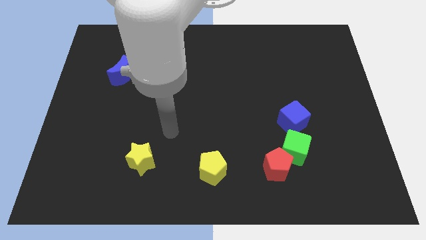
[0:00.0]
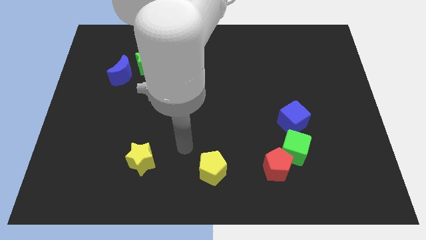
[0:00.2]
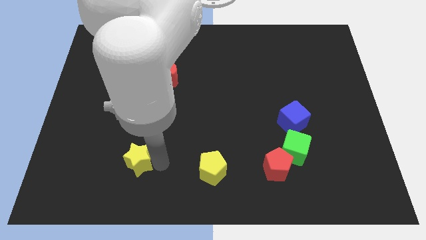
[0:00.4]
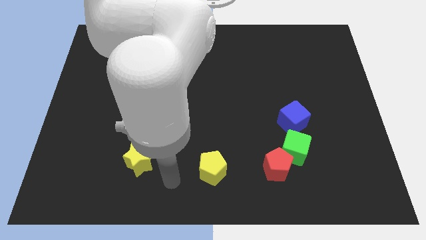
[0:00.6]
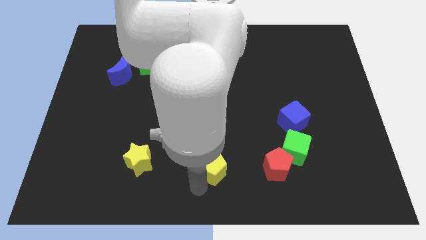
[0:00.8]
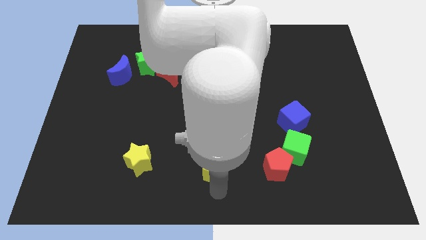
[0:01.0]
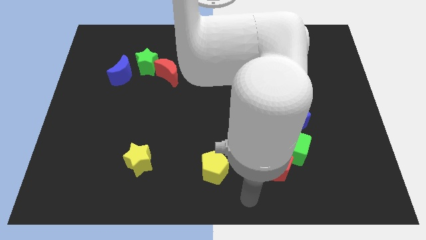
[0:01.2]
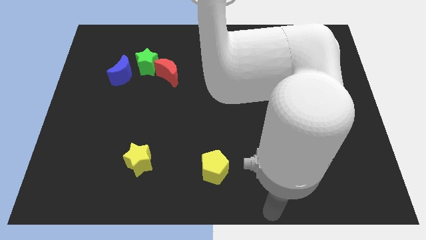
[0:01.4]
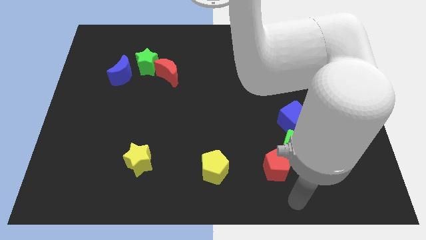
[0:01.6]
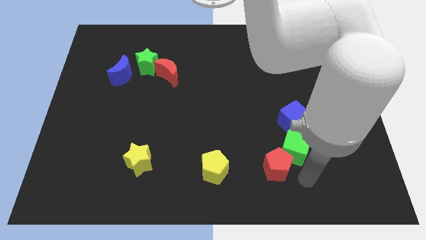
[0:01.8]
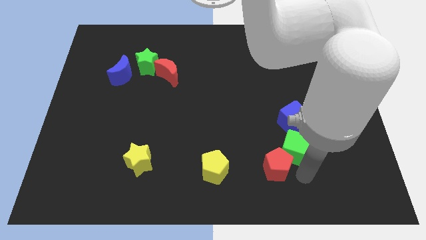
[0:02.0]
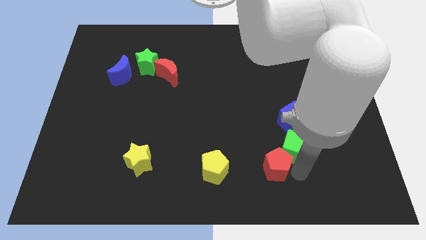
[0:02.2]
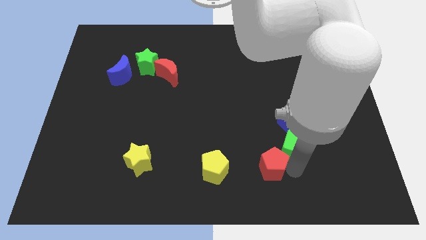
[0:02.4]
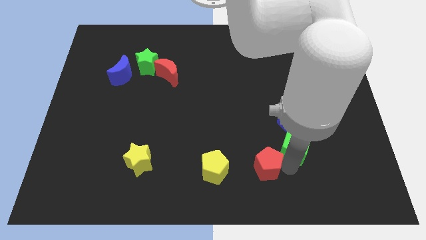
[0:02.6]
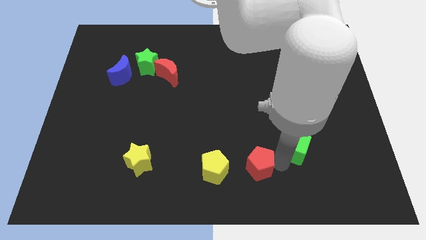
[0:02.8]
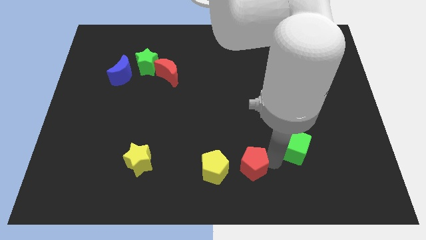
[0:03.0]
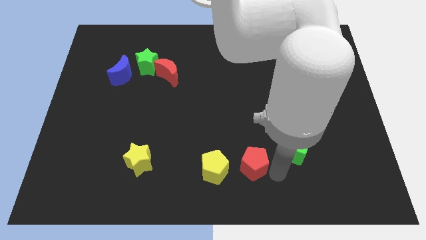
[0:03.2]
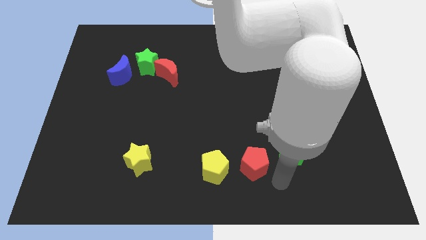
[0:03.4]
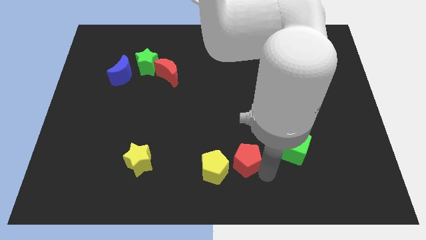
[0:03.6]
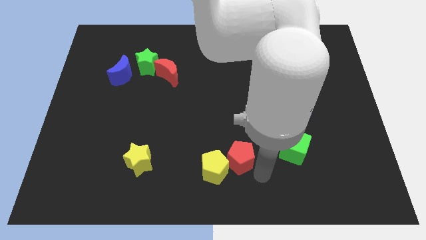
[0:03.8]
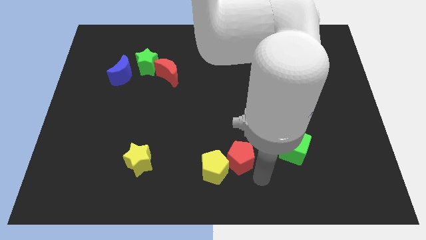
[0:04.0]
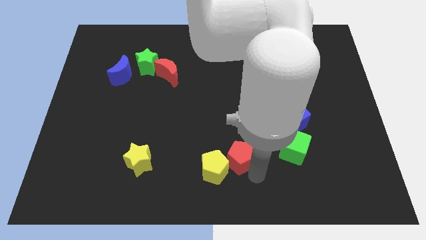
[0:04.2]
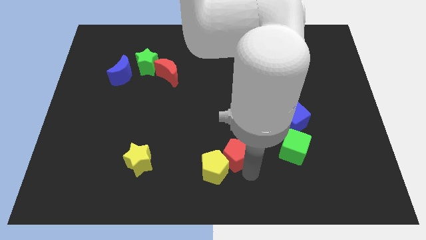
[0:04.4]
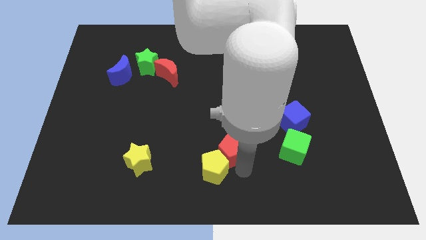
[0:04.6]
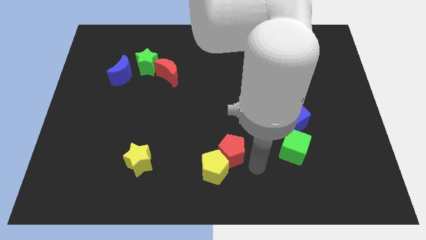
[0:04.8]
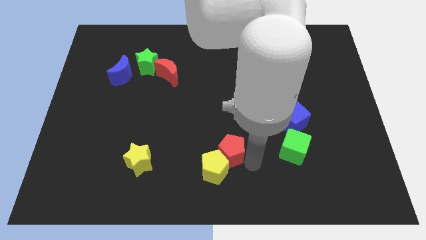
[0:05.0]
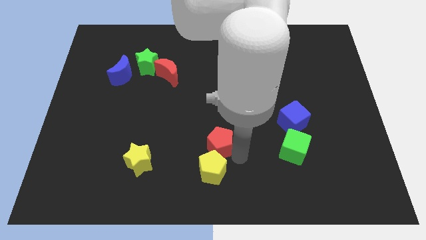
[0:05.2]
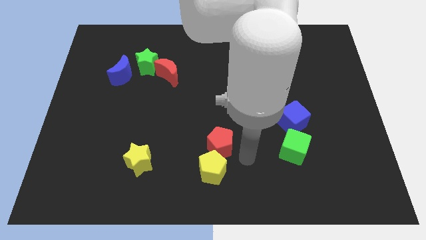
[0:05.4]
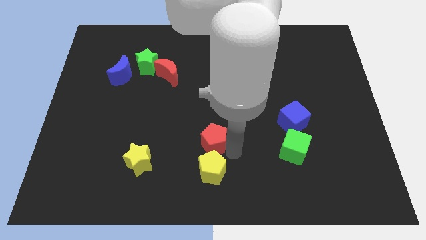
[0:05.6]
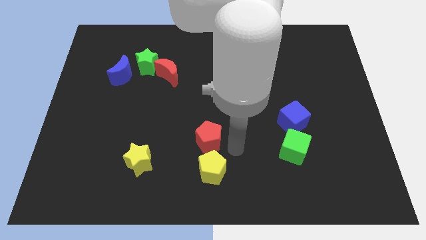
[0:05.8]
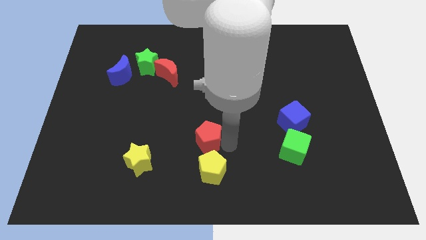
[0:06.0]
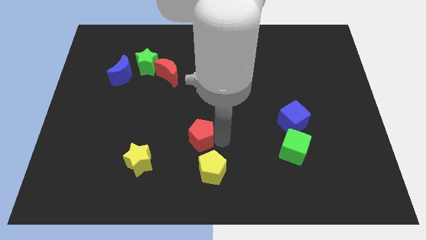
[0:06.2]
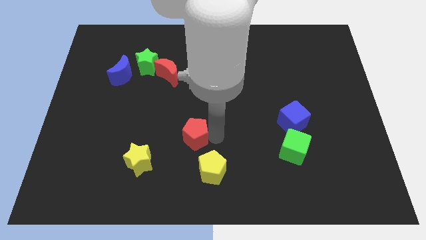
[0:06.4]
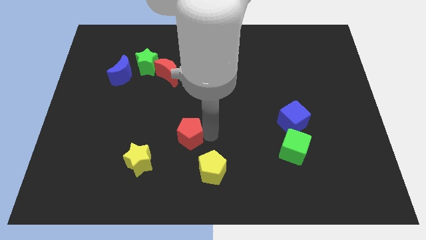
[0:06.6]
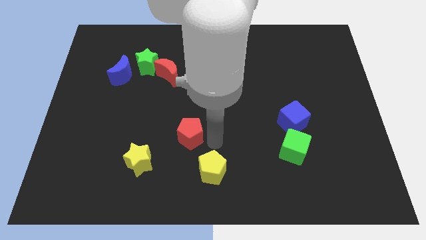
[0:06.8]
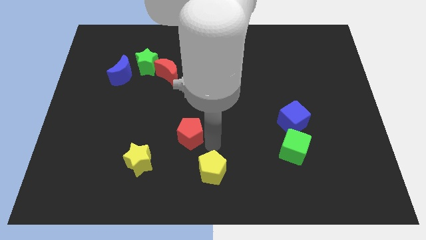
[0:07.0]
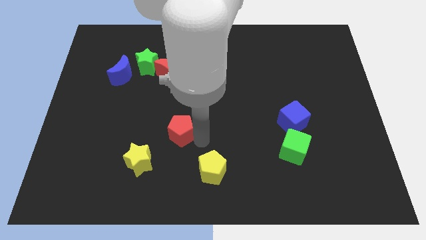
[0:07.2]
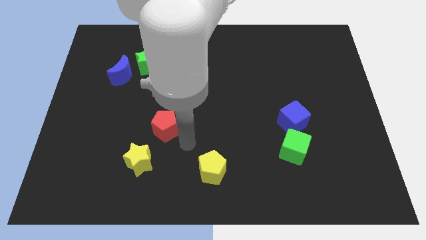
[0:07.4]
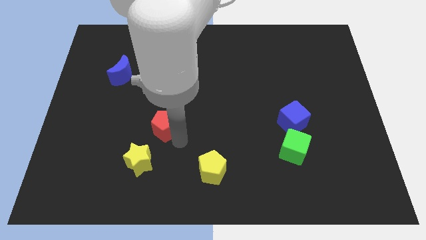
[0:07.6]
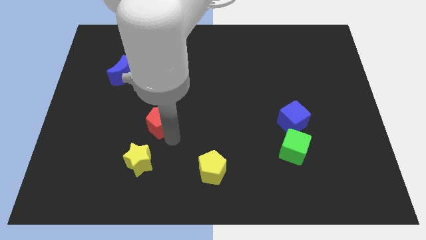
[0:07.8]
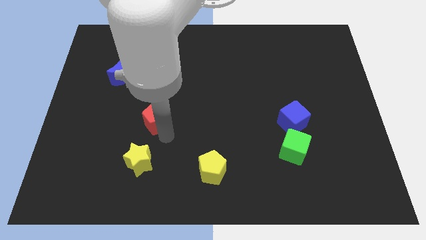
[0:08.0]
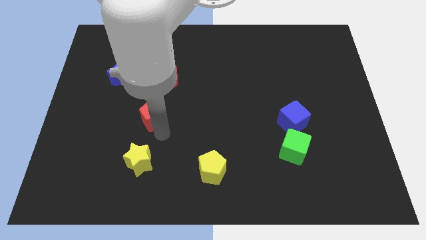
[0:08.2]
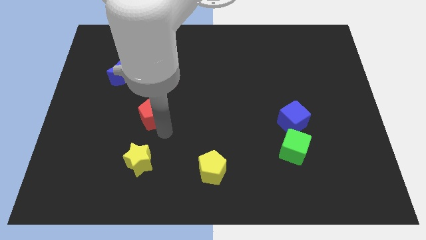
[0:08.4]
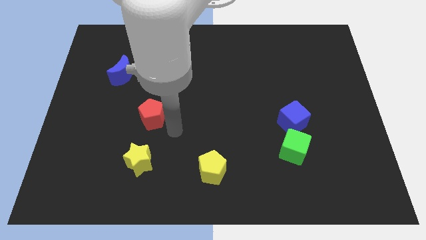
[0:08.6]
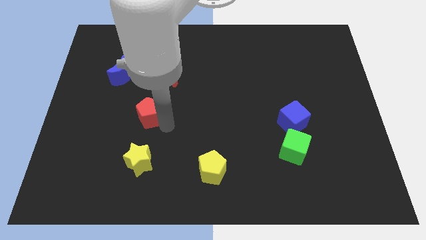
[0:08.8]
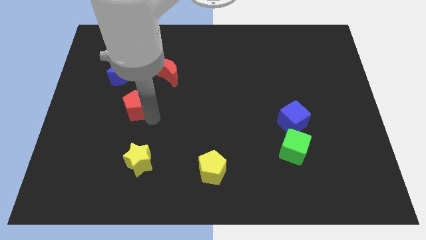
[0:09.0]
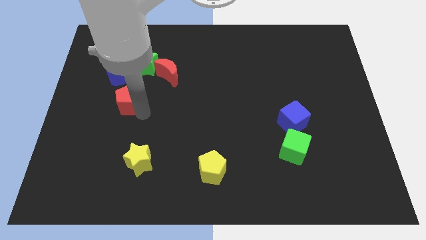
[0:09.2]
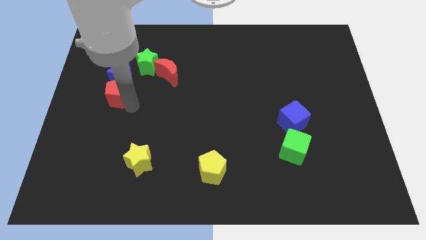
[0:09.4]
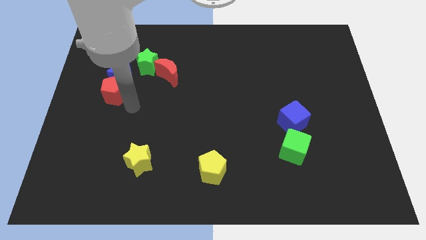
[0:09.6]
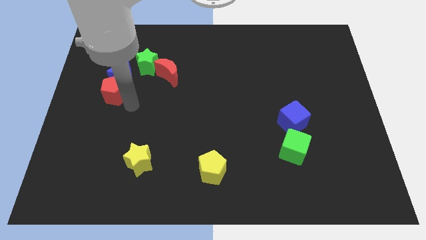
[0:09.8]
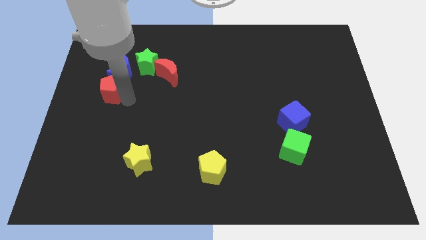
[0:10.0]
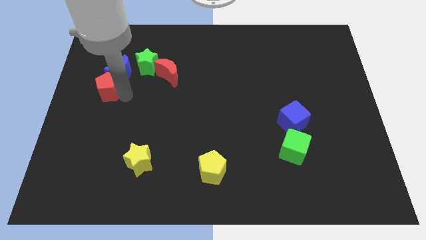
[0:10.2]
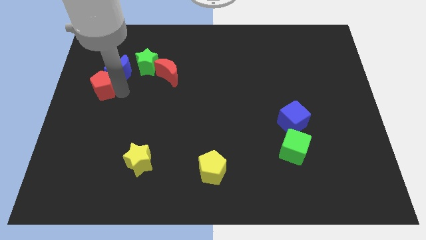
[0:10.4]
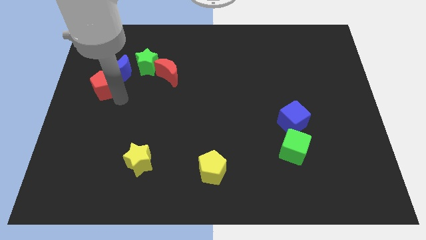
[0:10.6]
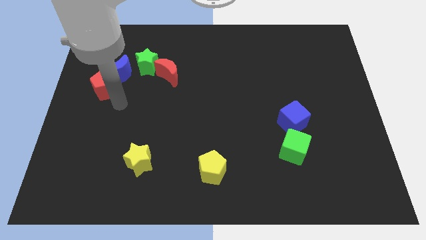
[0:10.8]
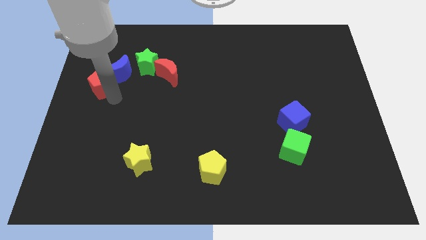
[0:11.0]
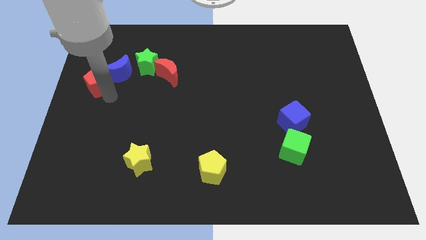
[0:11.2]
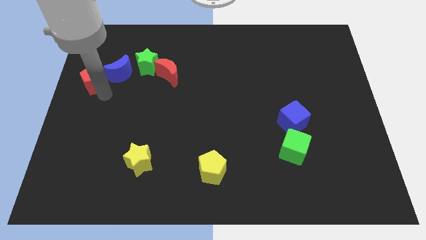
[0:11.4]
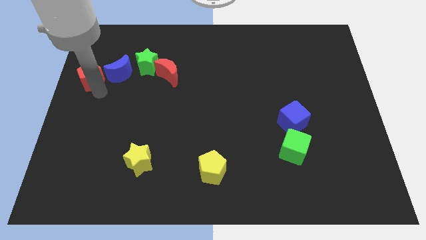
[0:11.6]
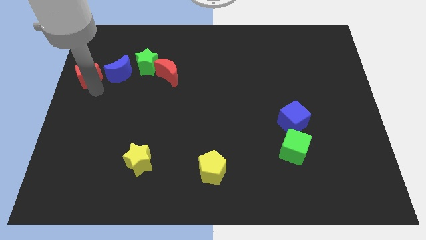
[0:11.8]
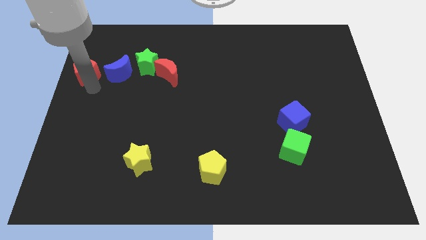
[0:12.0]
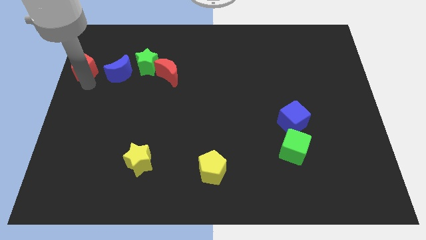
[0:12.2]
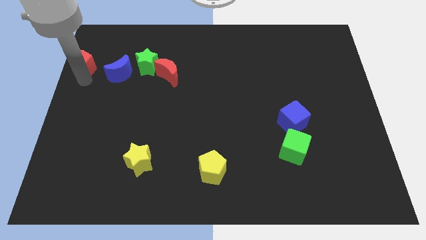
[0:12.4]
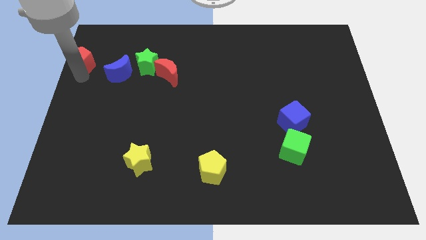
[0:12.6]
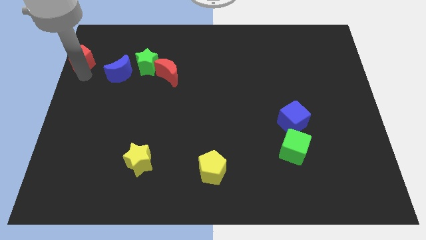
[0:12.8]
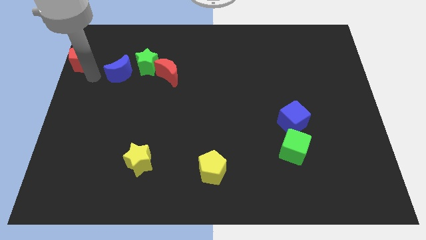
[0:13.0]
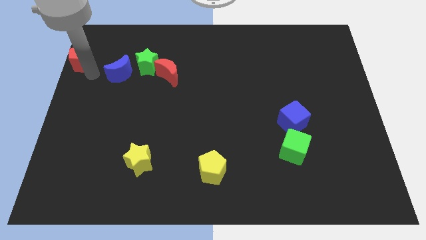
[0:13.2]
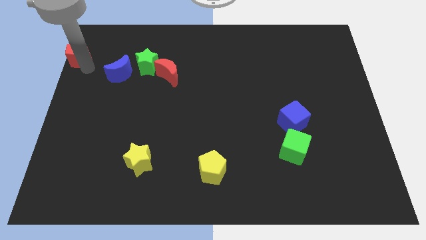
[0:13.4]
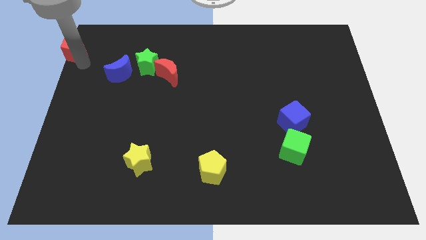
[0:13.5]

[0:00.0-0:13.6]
put the red pentagon to the top left corner
